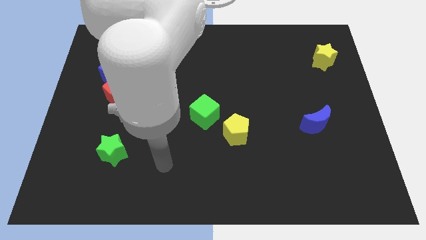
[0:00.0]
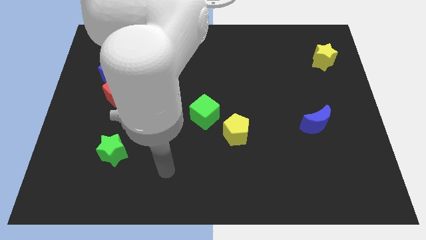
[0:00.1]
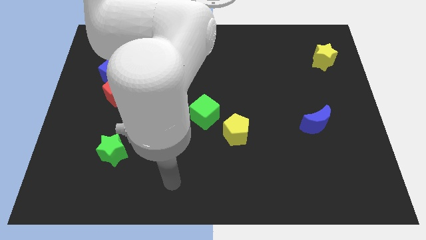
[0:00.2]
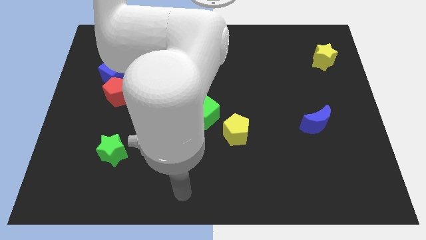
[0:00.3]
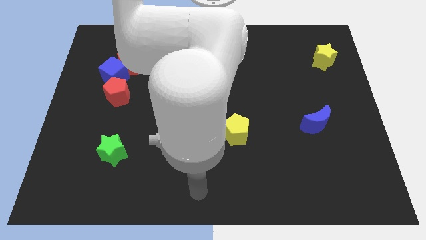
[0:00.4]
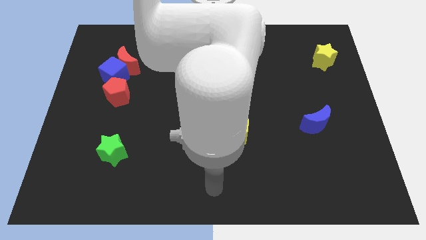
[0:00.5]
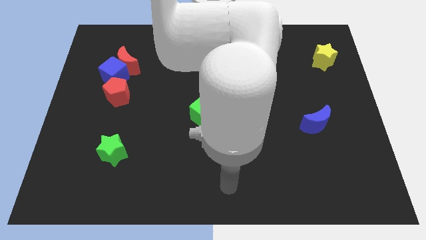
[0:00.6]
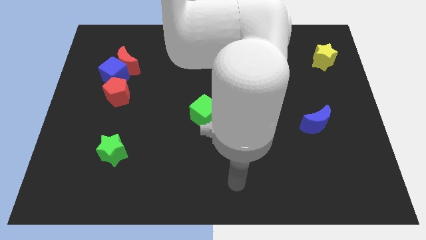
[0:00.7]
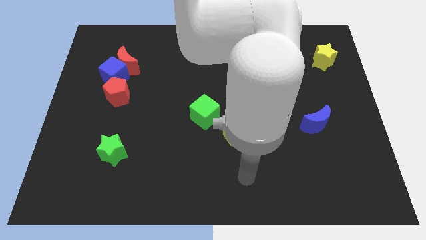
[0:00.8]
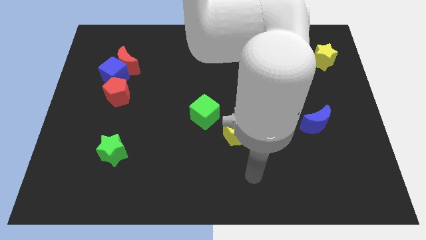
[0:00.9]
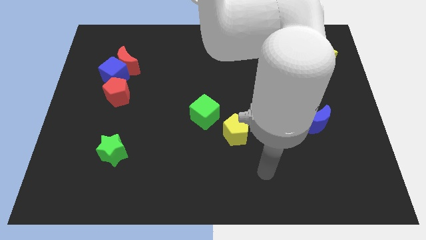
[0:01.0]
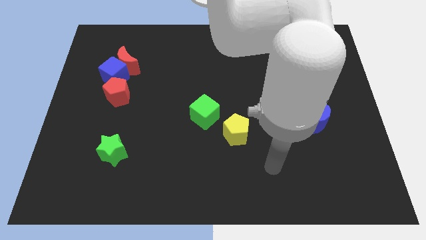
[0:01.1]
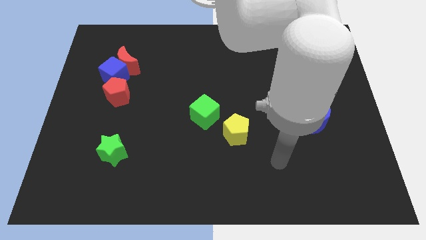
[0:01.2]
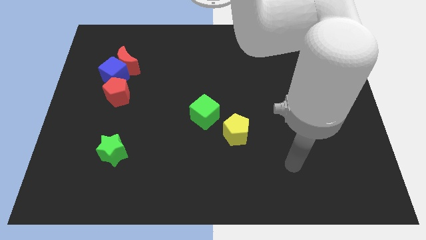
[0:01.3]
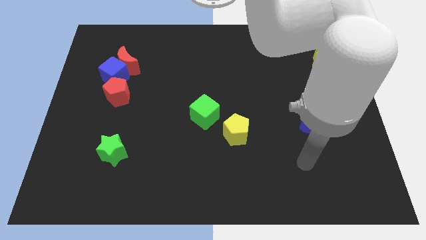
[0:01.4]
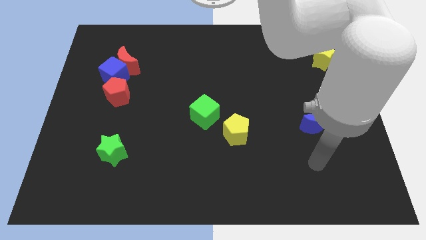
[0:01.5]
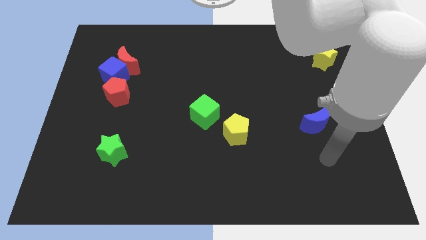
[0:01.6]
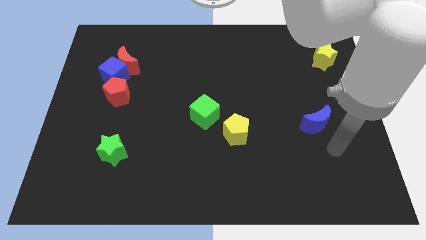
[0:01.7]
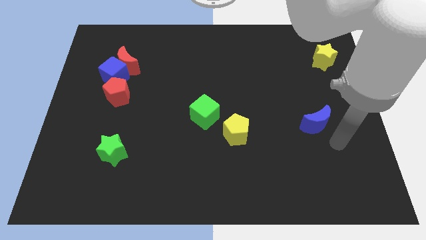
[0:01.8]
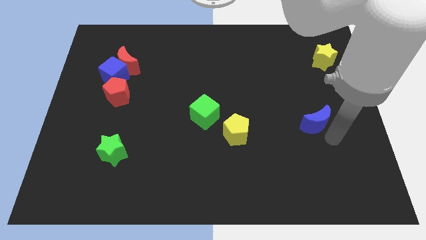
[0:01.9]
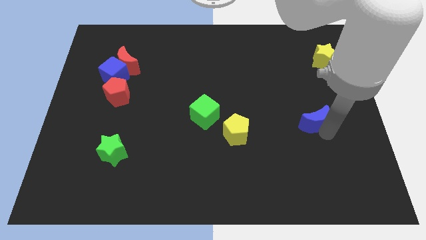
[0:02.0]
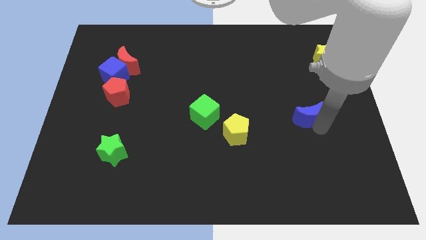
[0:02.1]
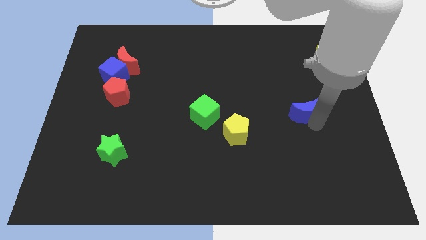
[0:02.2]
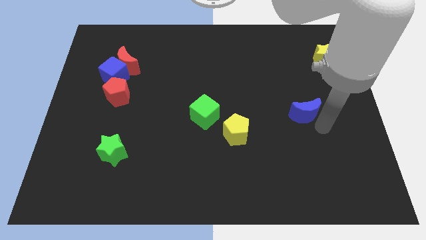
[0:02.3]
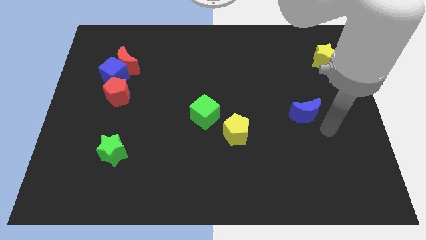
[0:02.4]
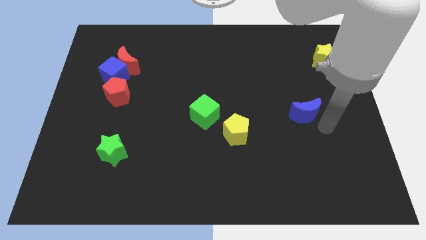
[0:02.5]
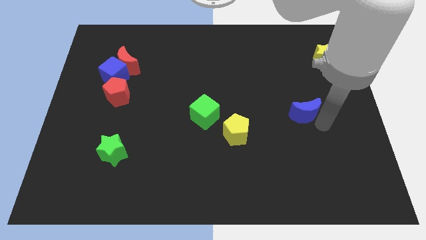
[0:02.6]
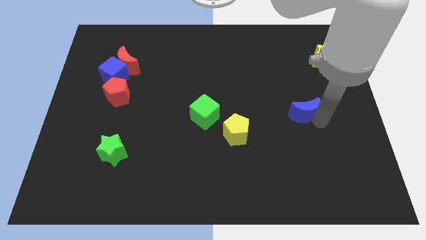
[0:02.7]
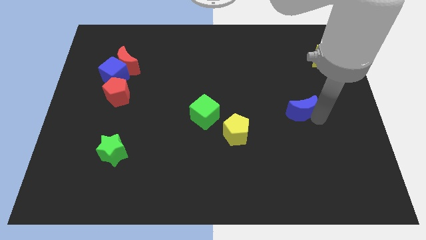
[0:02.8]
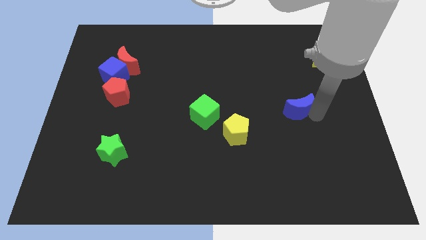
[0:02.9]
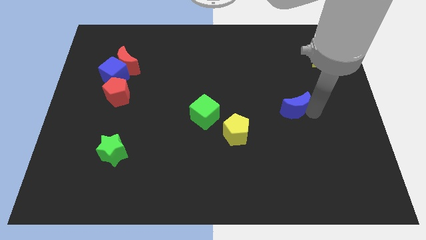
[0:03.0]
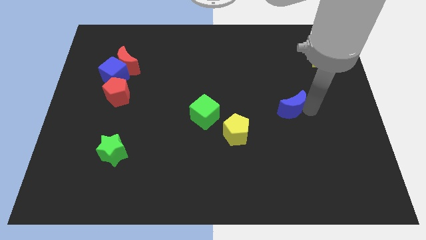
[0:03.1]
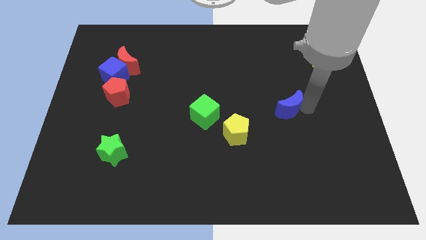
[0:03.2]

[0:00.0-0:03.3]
slightly slide the blue moon upwards and to the left diagonally

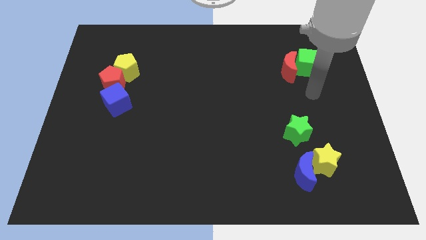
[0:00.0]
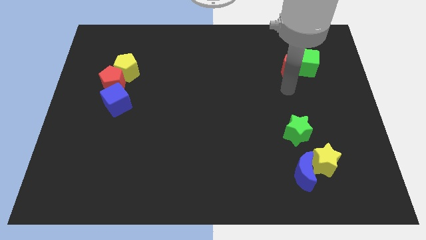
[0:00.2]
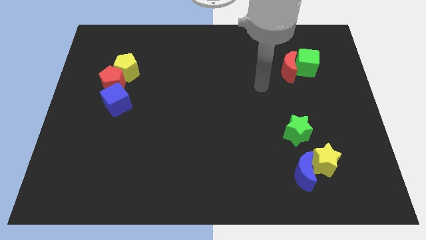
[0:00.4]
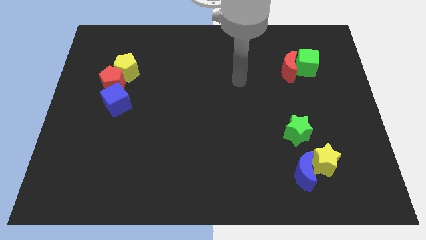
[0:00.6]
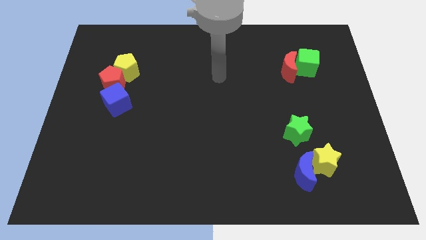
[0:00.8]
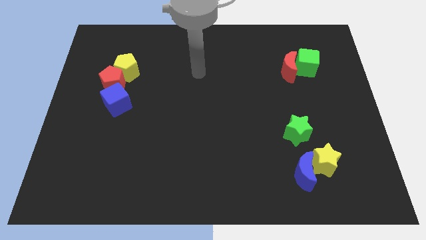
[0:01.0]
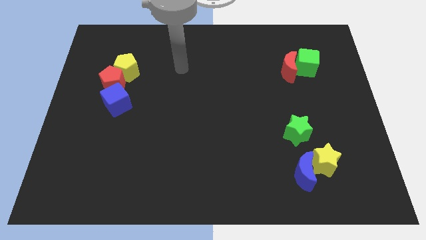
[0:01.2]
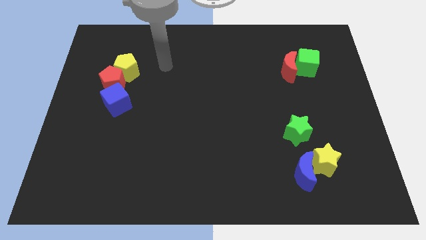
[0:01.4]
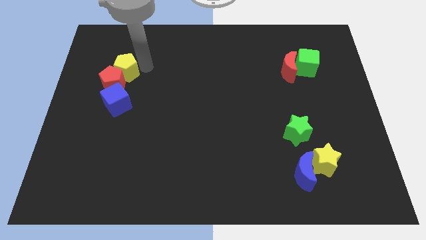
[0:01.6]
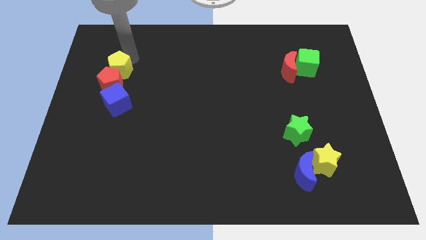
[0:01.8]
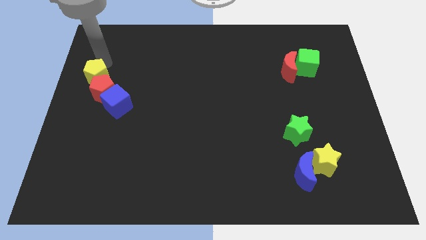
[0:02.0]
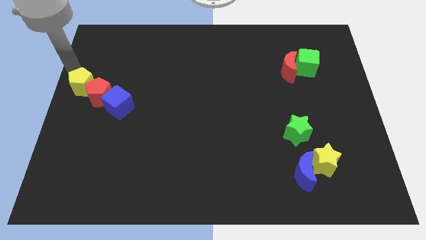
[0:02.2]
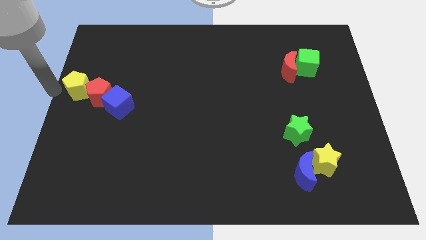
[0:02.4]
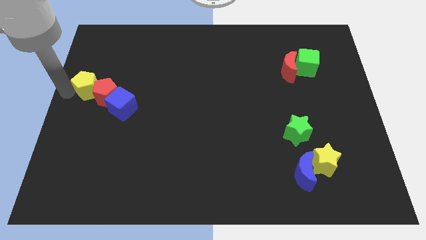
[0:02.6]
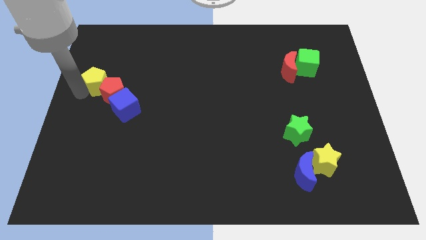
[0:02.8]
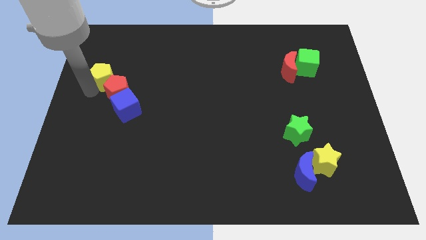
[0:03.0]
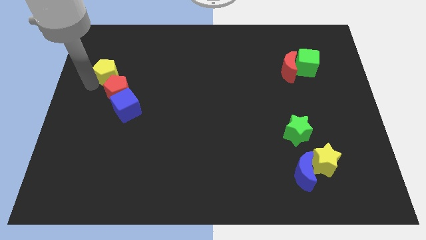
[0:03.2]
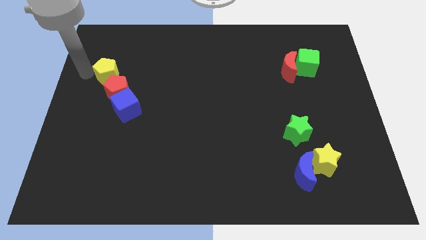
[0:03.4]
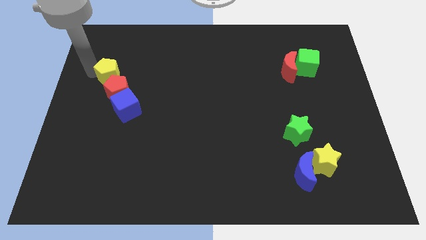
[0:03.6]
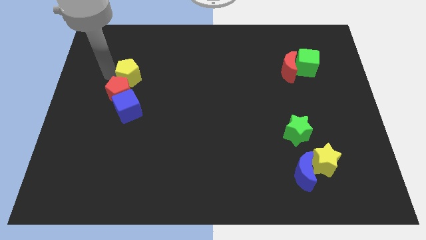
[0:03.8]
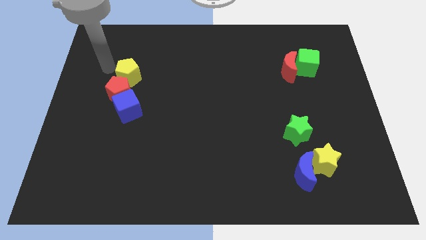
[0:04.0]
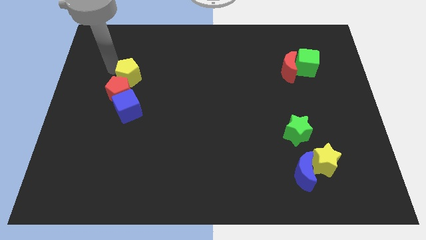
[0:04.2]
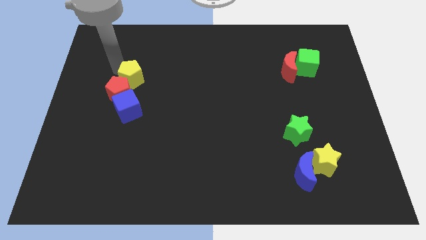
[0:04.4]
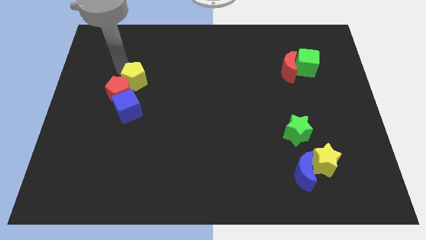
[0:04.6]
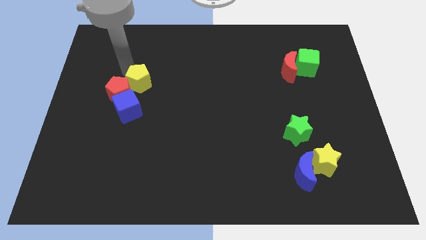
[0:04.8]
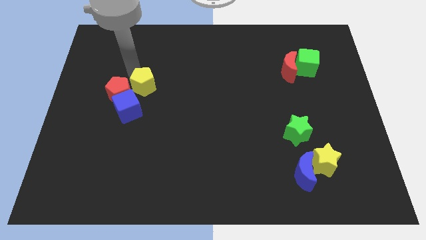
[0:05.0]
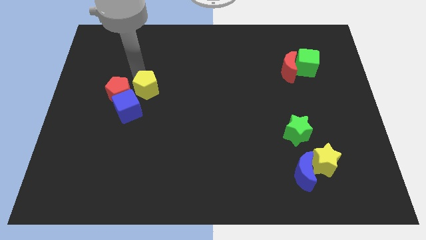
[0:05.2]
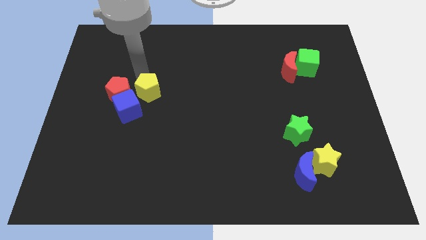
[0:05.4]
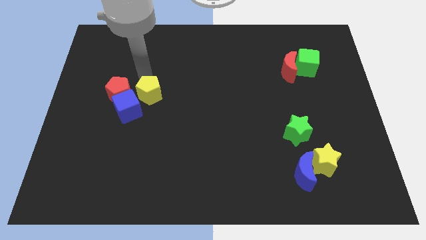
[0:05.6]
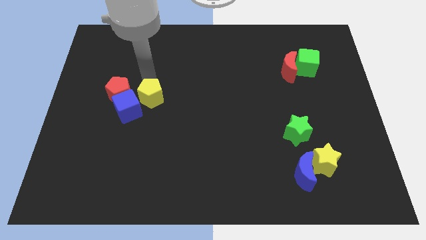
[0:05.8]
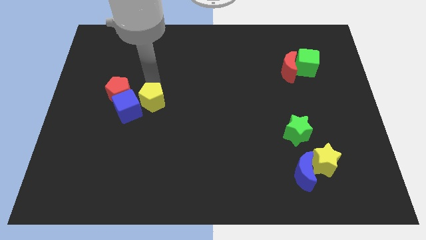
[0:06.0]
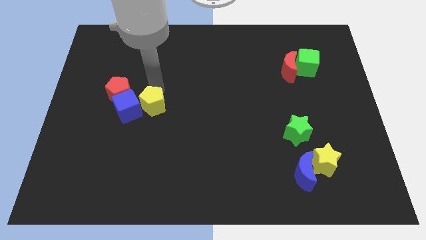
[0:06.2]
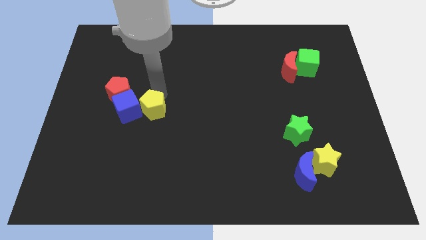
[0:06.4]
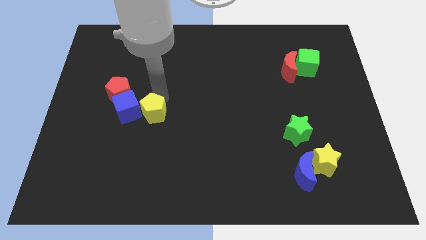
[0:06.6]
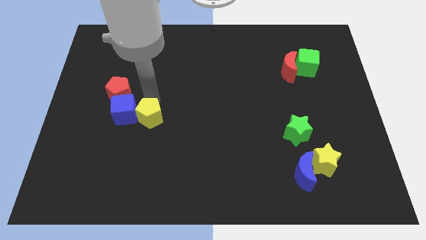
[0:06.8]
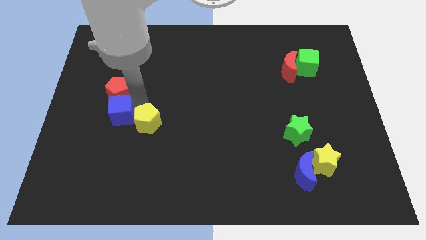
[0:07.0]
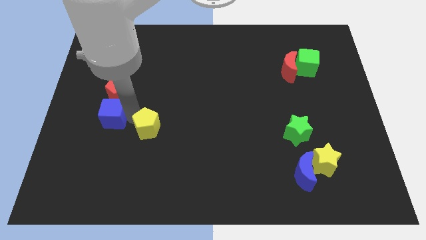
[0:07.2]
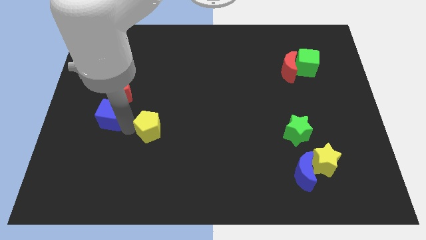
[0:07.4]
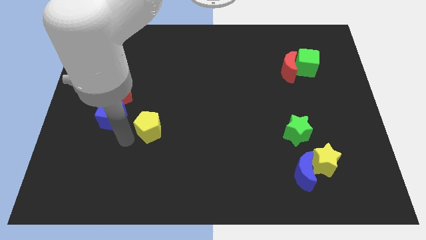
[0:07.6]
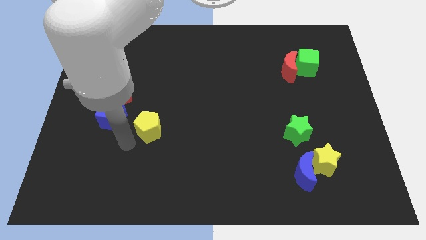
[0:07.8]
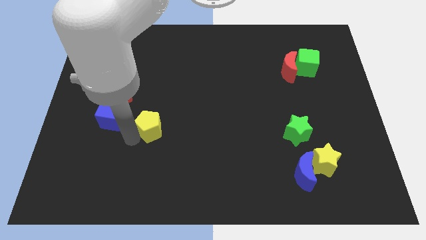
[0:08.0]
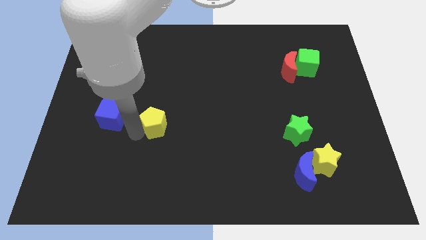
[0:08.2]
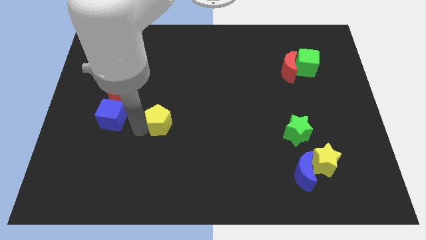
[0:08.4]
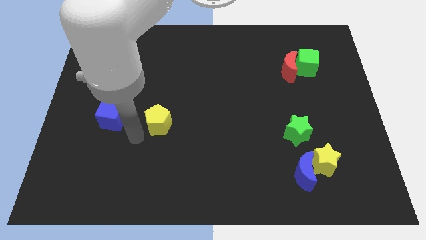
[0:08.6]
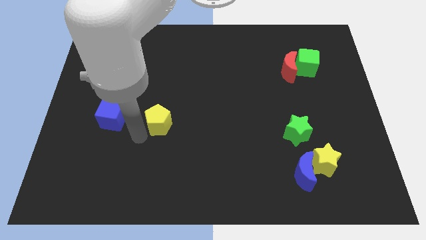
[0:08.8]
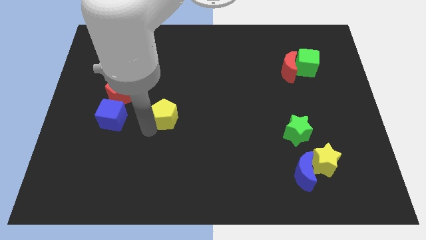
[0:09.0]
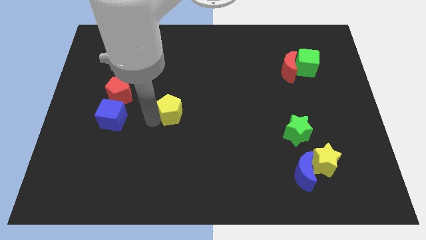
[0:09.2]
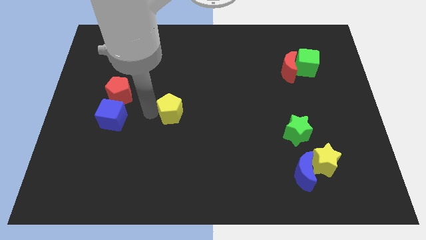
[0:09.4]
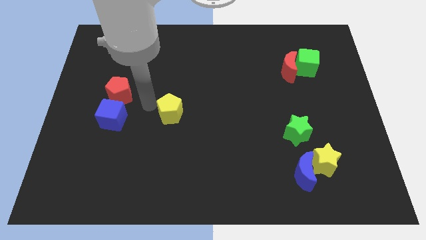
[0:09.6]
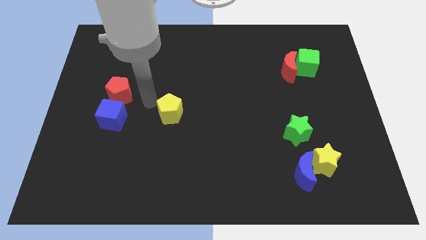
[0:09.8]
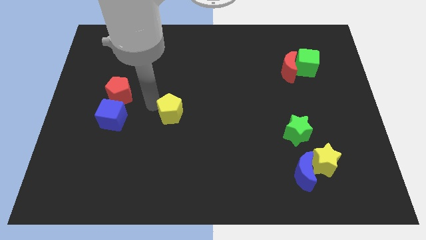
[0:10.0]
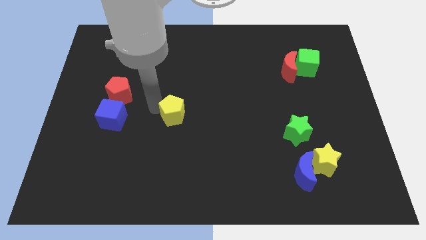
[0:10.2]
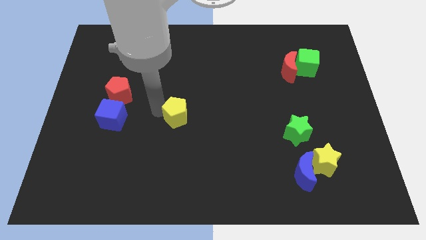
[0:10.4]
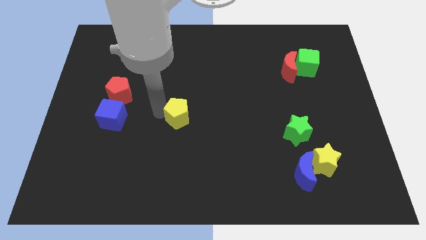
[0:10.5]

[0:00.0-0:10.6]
move the yellow pentagon downwards and to the right
